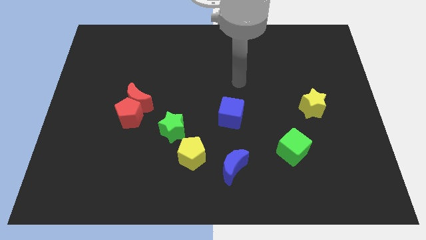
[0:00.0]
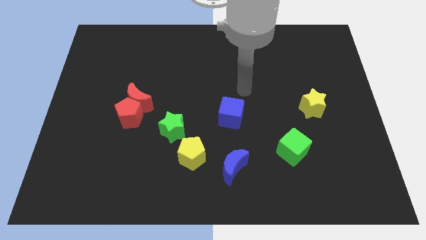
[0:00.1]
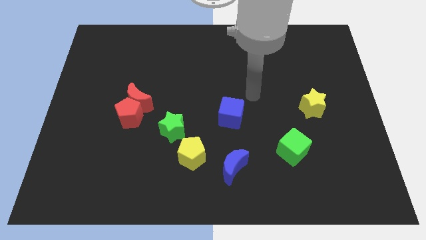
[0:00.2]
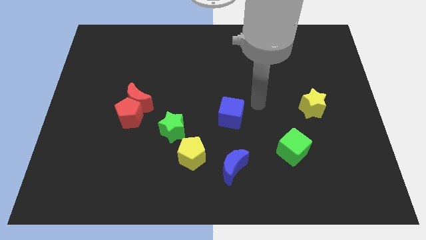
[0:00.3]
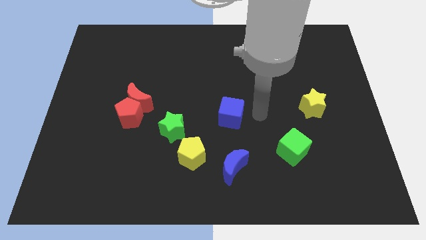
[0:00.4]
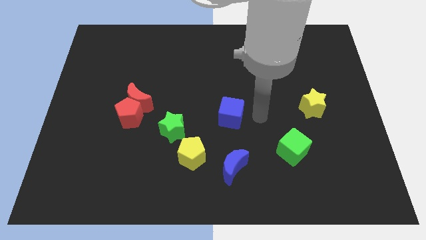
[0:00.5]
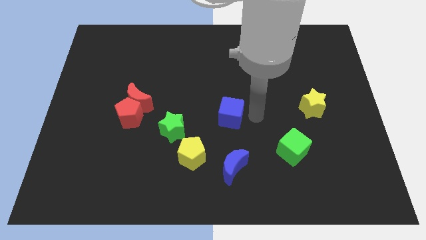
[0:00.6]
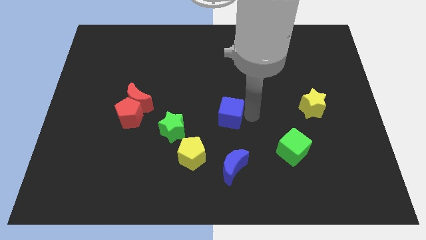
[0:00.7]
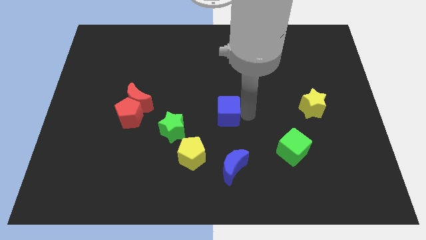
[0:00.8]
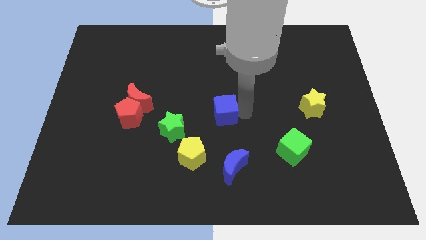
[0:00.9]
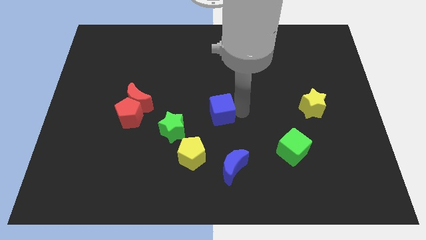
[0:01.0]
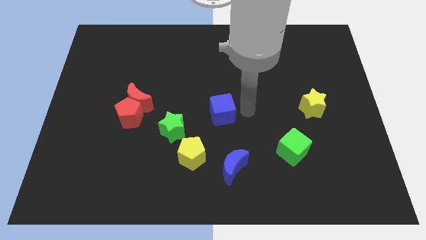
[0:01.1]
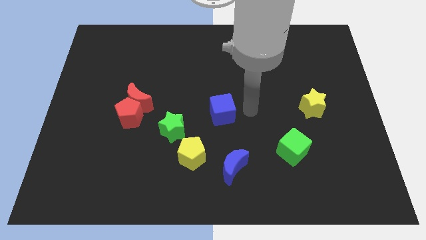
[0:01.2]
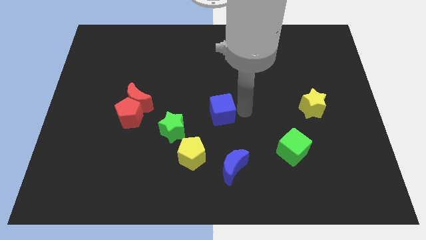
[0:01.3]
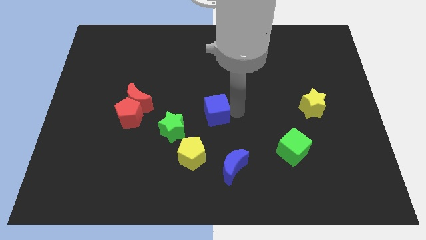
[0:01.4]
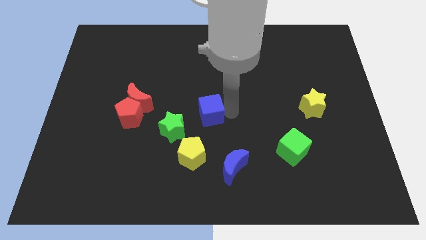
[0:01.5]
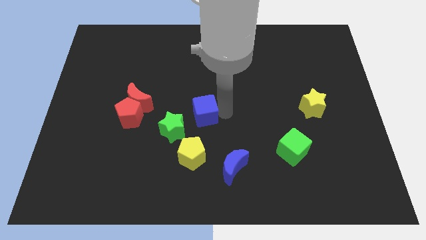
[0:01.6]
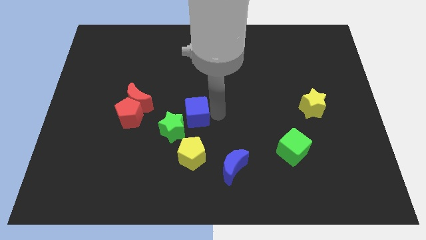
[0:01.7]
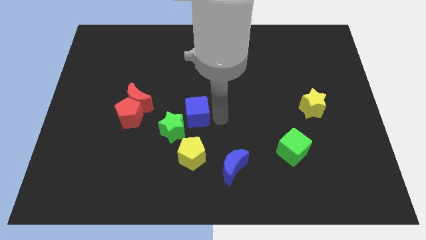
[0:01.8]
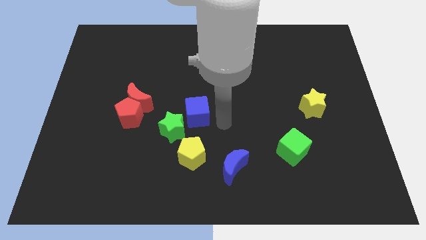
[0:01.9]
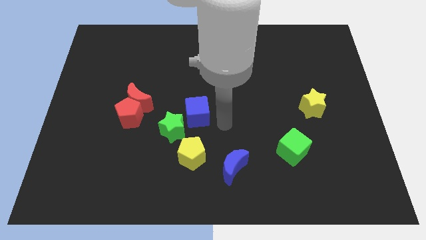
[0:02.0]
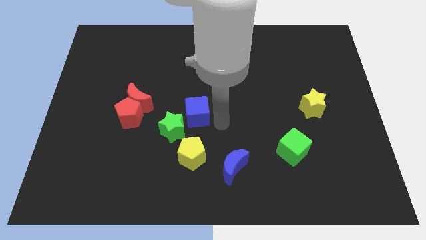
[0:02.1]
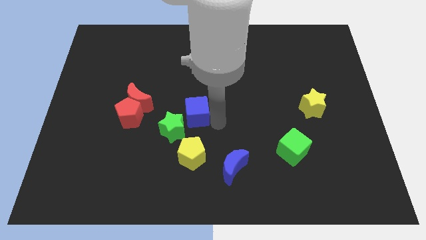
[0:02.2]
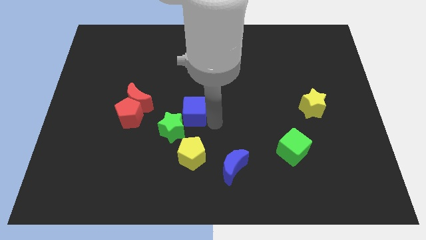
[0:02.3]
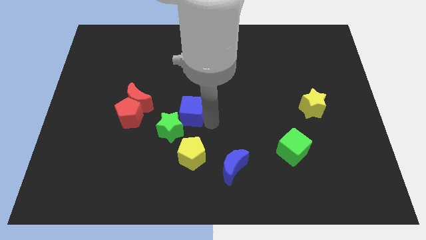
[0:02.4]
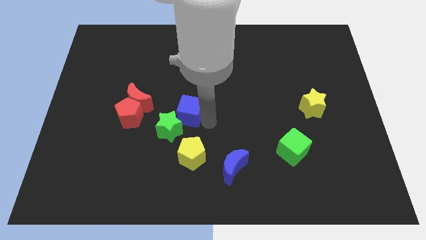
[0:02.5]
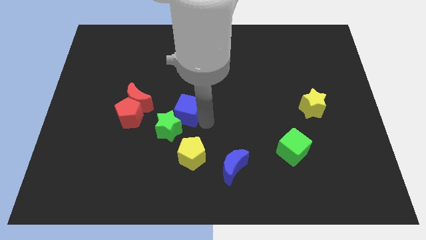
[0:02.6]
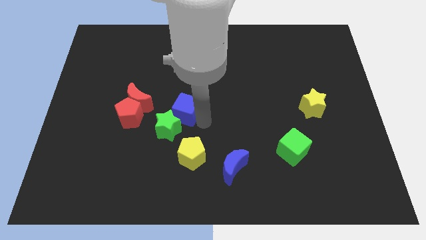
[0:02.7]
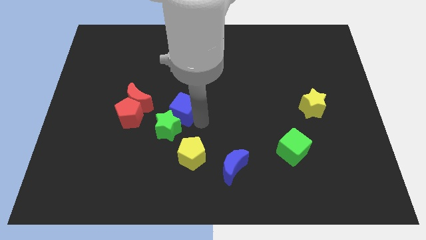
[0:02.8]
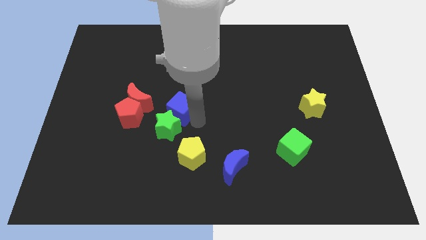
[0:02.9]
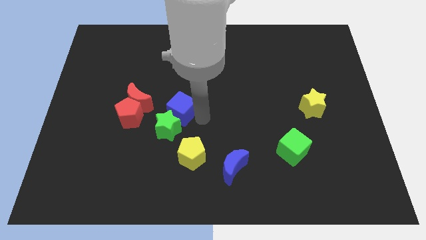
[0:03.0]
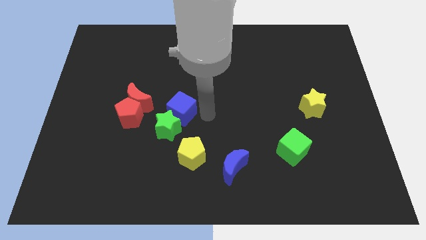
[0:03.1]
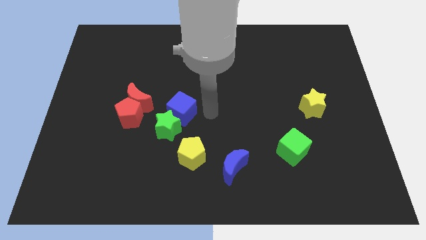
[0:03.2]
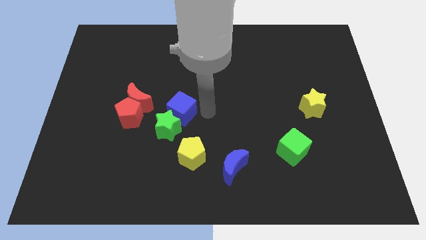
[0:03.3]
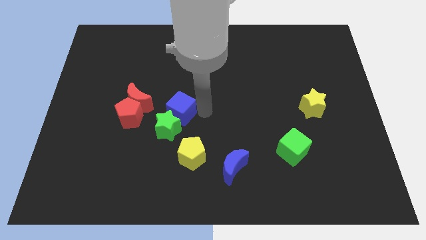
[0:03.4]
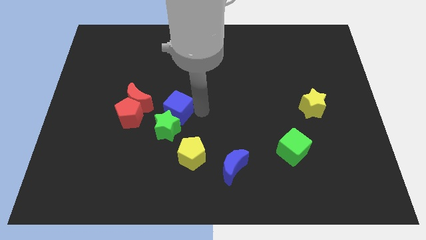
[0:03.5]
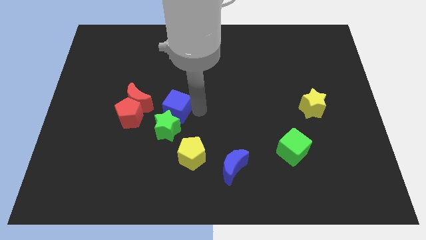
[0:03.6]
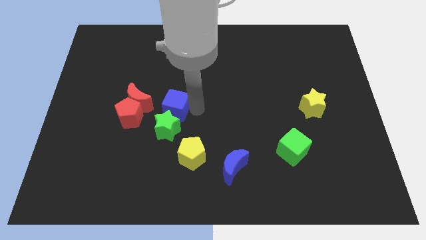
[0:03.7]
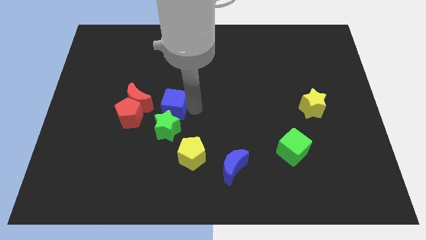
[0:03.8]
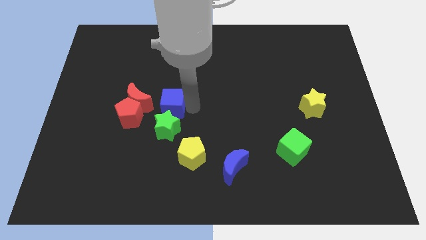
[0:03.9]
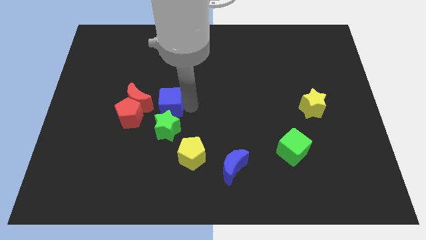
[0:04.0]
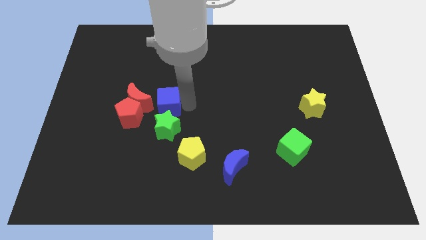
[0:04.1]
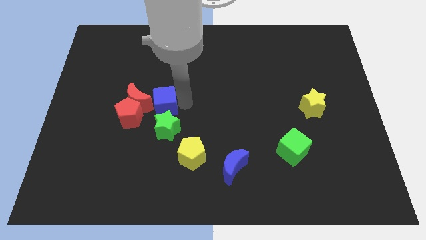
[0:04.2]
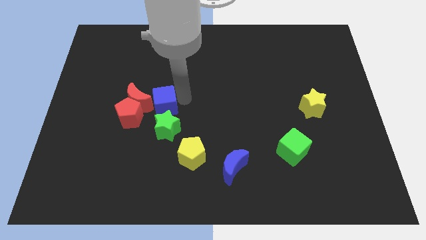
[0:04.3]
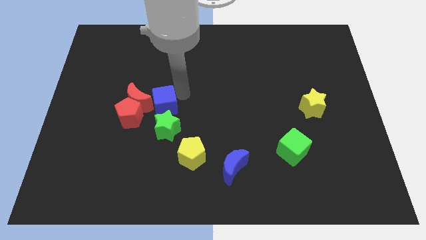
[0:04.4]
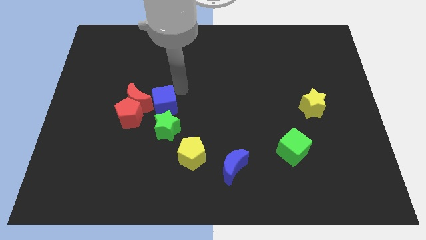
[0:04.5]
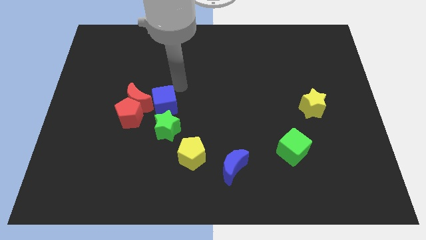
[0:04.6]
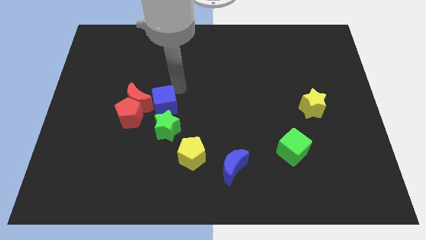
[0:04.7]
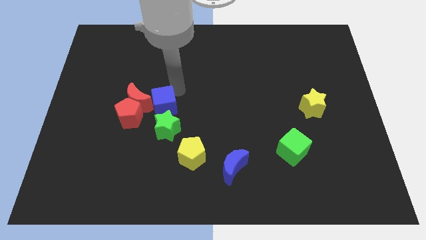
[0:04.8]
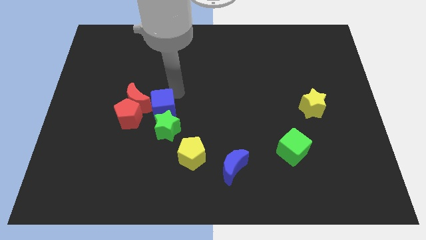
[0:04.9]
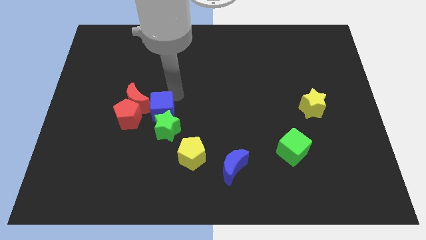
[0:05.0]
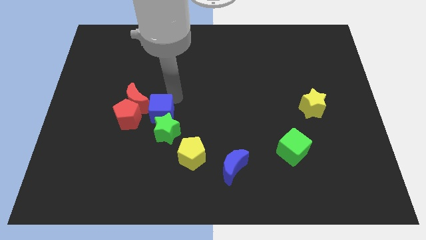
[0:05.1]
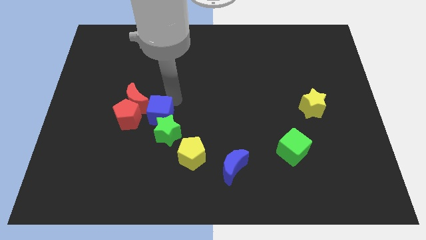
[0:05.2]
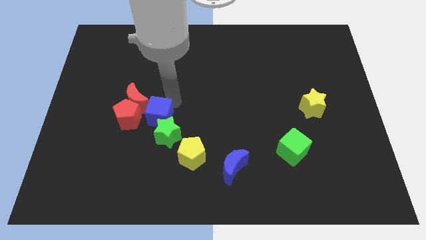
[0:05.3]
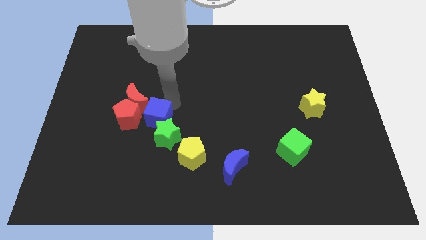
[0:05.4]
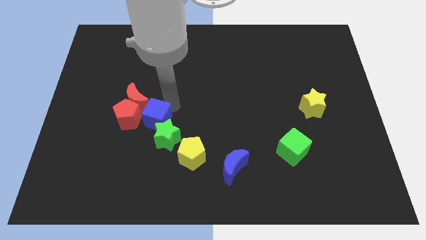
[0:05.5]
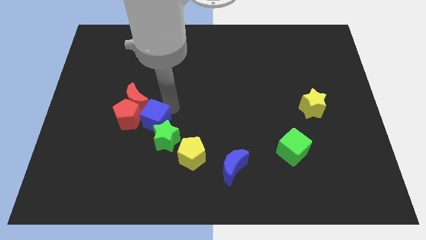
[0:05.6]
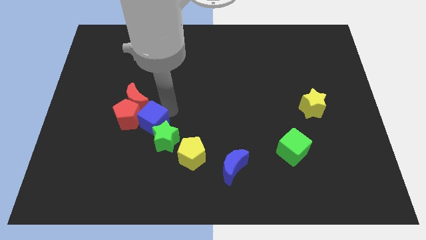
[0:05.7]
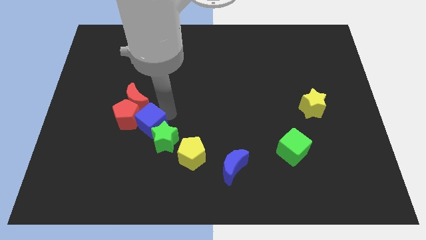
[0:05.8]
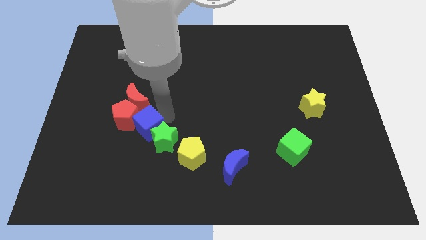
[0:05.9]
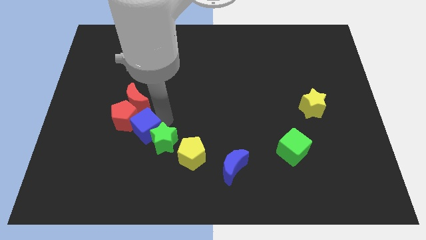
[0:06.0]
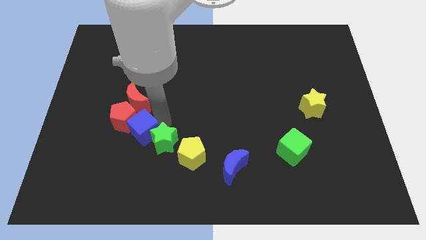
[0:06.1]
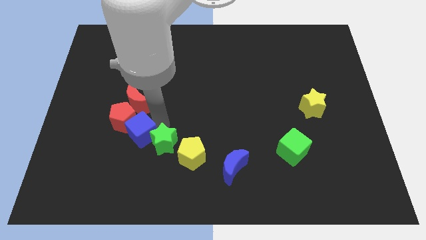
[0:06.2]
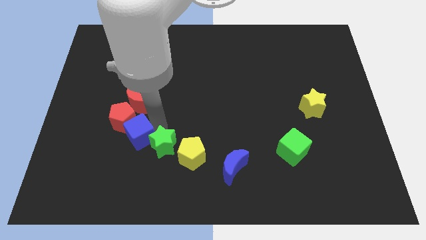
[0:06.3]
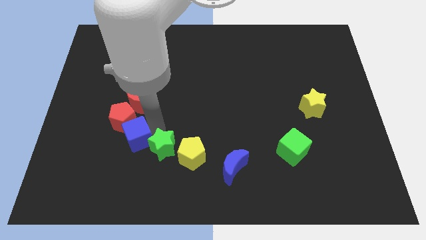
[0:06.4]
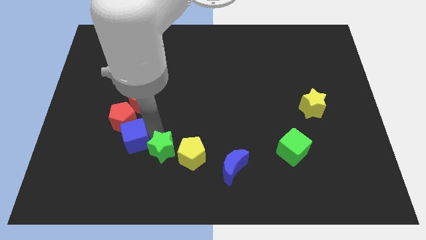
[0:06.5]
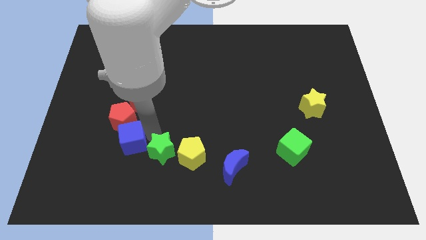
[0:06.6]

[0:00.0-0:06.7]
slide the blue cube left

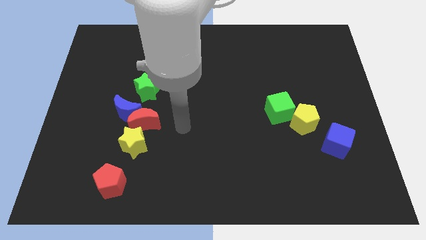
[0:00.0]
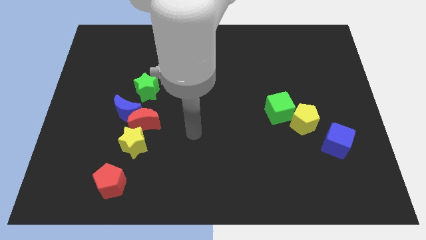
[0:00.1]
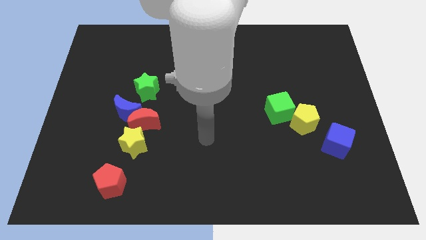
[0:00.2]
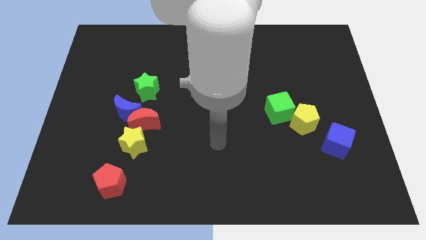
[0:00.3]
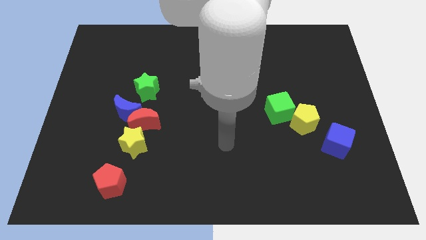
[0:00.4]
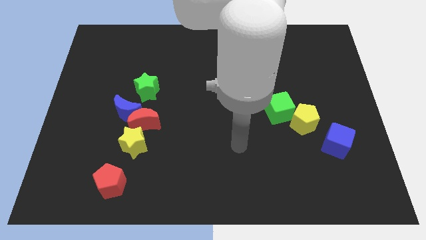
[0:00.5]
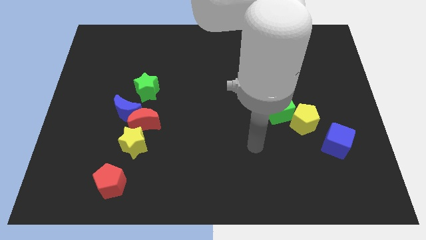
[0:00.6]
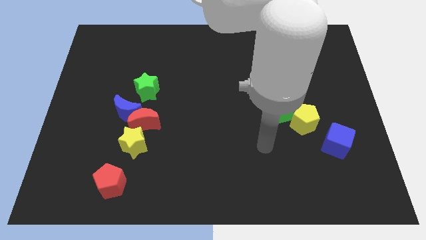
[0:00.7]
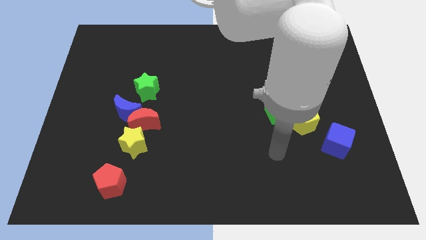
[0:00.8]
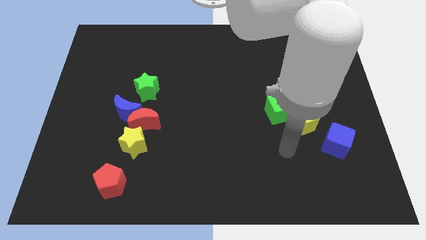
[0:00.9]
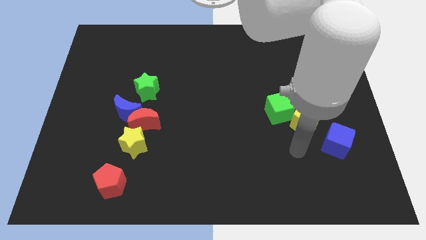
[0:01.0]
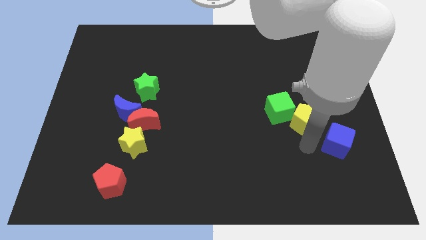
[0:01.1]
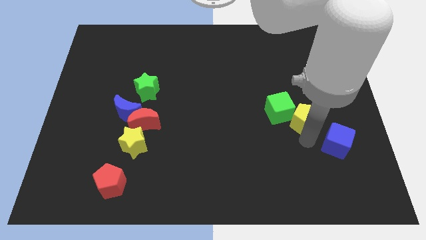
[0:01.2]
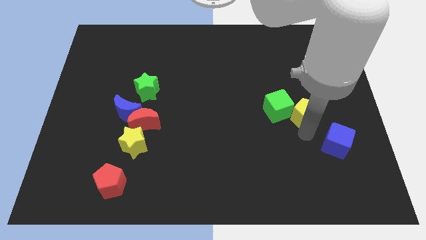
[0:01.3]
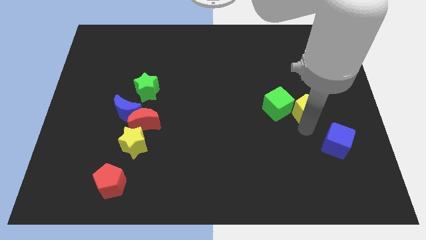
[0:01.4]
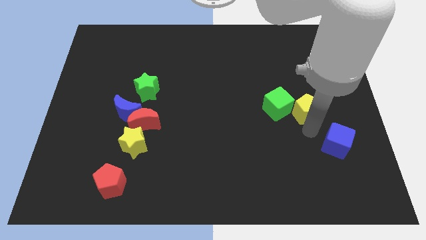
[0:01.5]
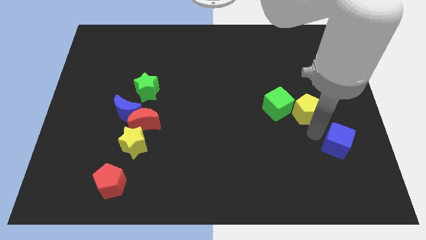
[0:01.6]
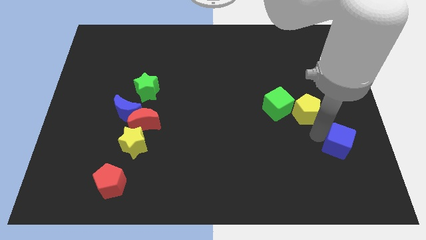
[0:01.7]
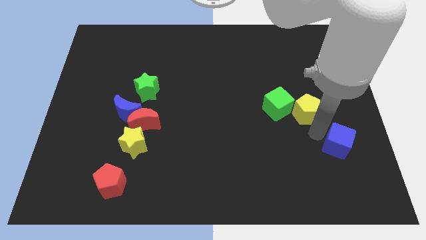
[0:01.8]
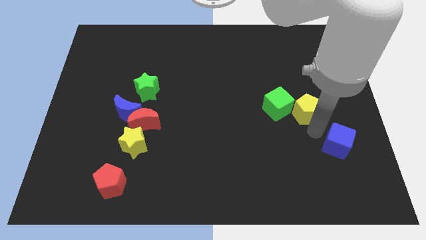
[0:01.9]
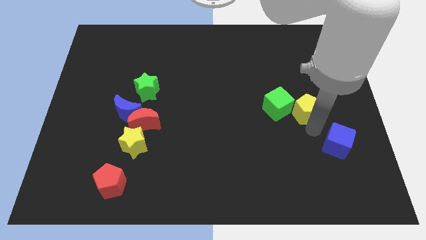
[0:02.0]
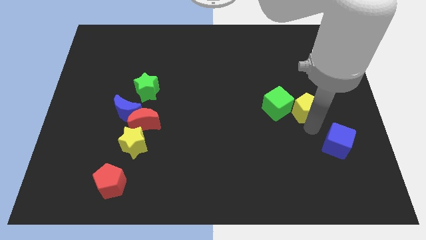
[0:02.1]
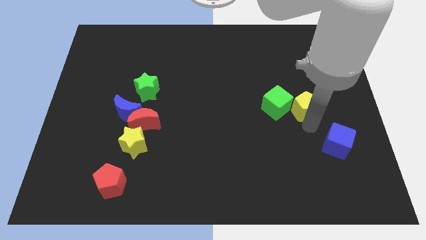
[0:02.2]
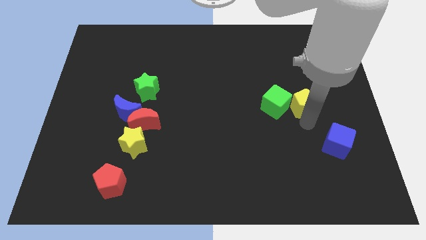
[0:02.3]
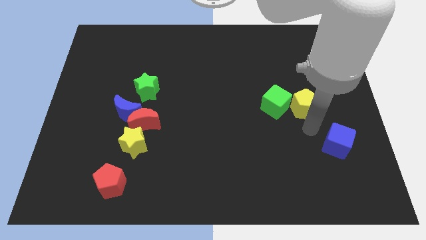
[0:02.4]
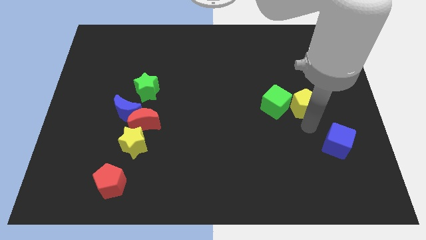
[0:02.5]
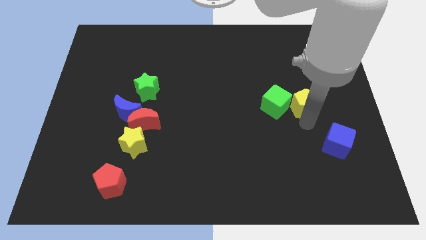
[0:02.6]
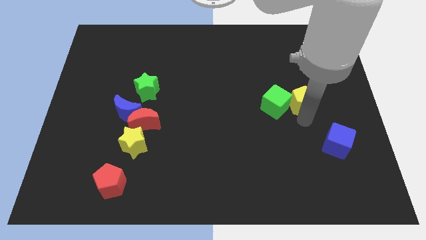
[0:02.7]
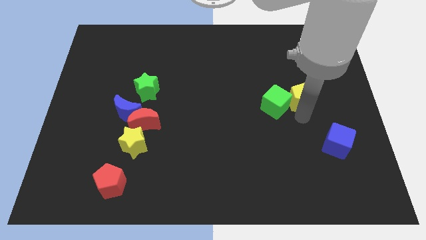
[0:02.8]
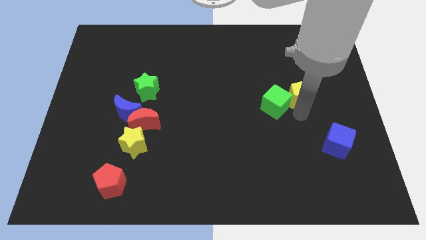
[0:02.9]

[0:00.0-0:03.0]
slide the yellow pentagon upwards a bit
